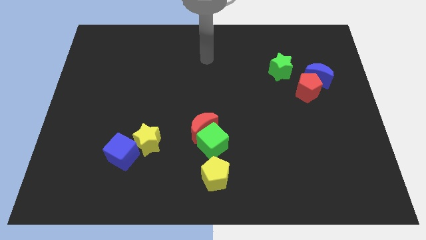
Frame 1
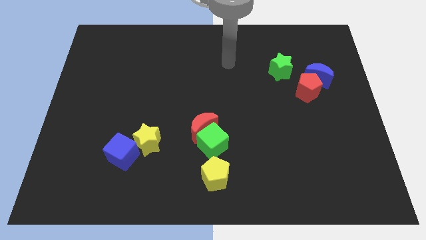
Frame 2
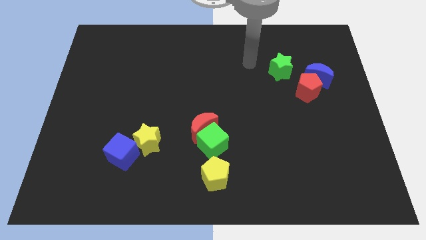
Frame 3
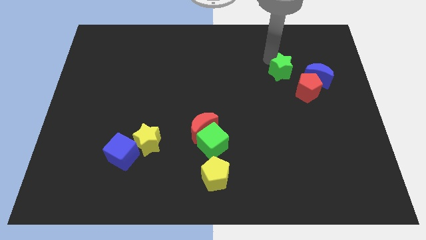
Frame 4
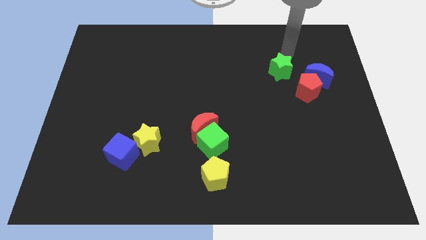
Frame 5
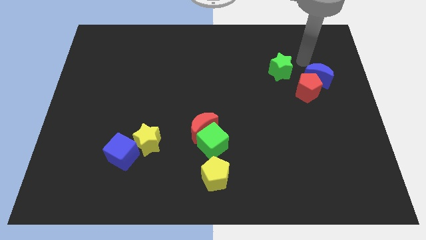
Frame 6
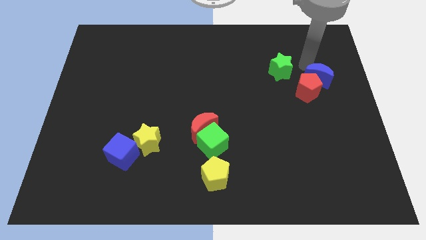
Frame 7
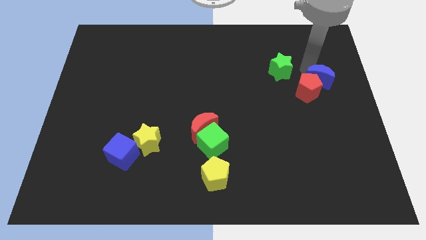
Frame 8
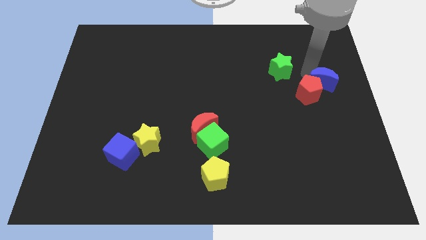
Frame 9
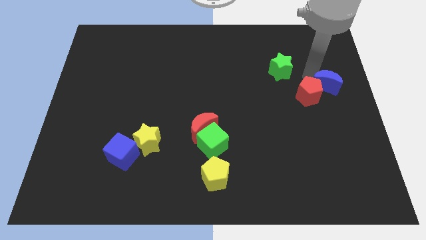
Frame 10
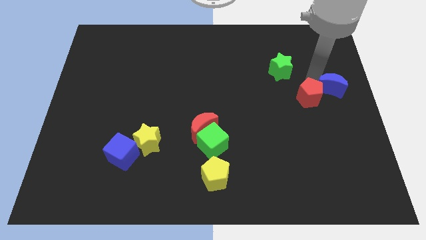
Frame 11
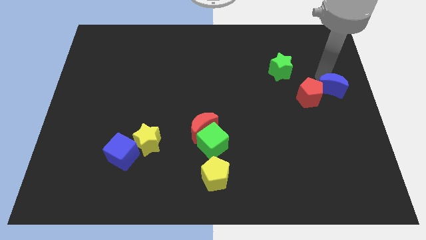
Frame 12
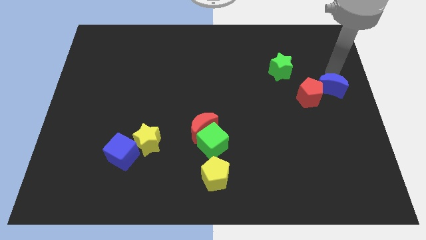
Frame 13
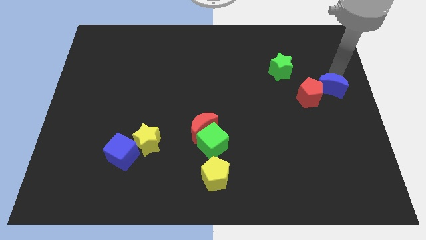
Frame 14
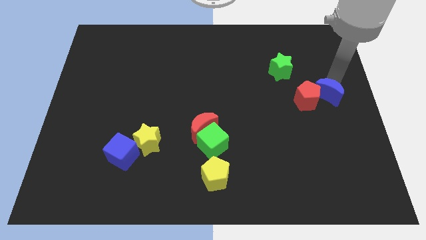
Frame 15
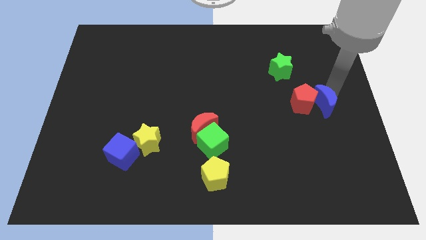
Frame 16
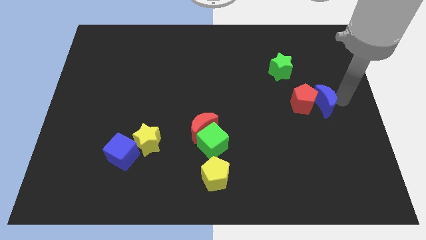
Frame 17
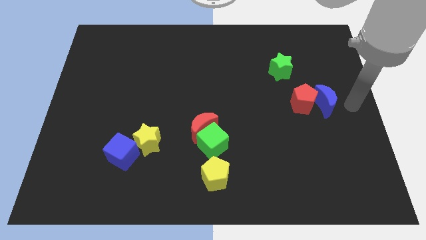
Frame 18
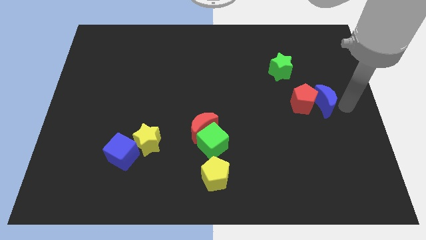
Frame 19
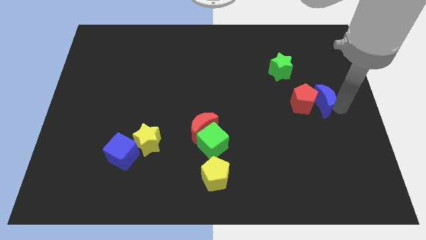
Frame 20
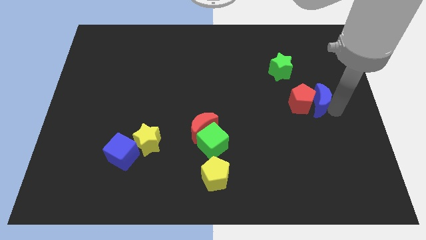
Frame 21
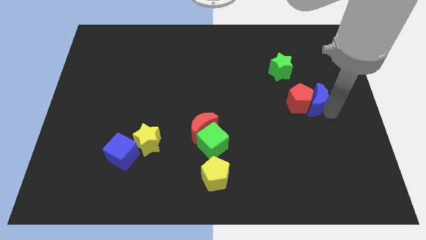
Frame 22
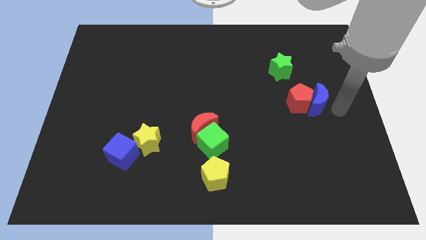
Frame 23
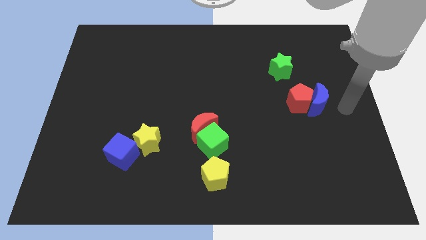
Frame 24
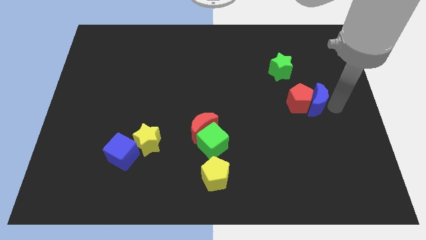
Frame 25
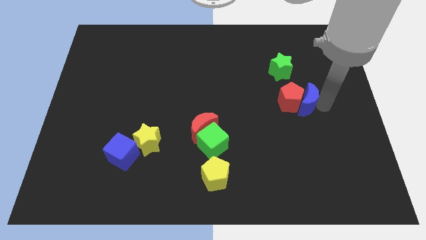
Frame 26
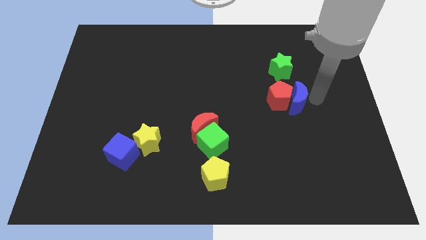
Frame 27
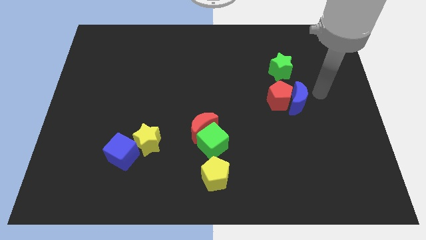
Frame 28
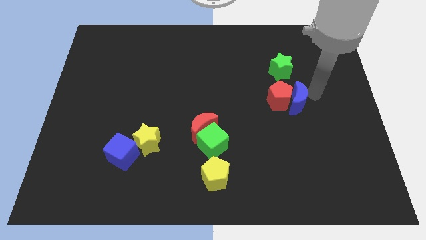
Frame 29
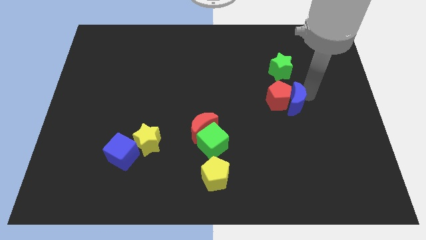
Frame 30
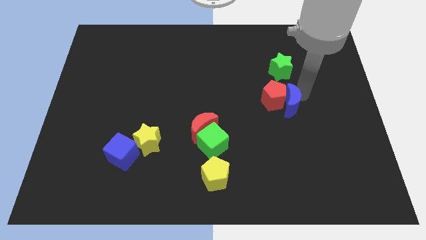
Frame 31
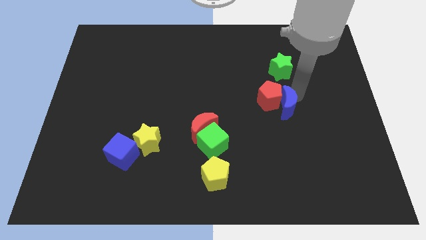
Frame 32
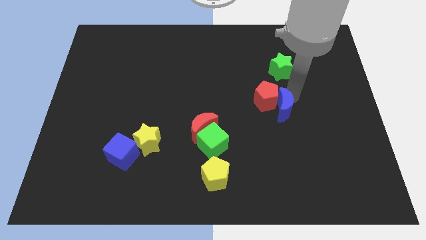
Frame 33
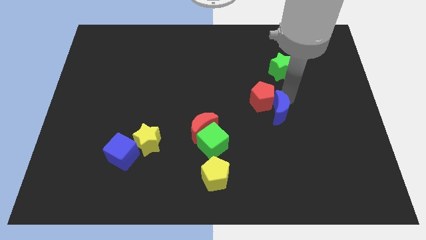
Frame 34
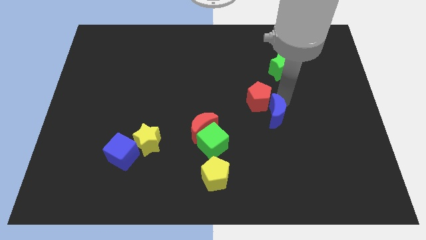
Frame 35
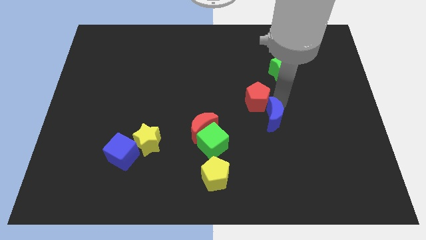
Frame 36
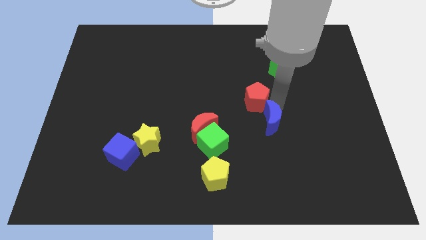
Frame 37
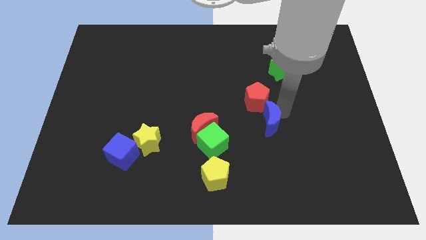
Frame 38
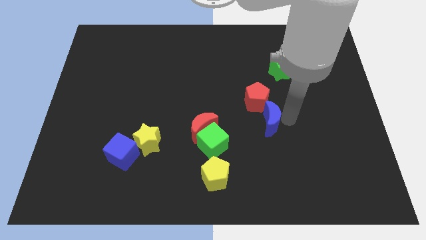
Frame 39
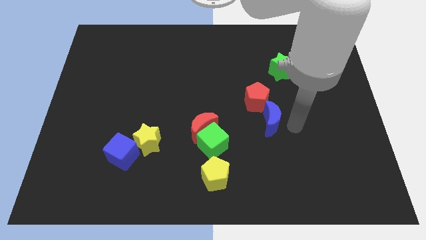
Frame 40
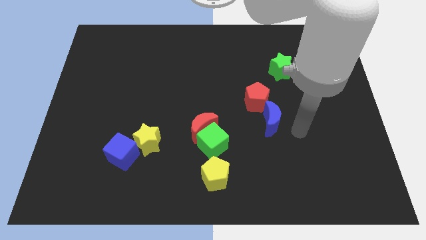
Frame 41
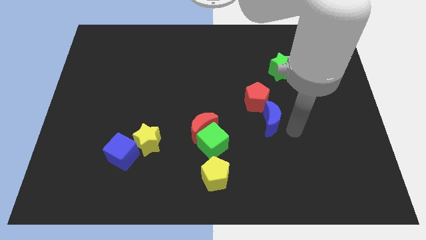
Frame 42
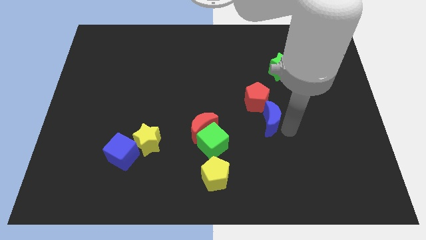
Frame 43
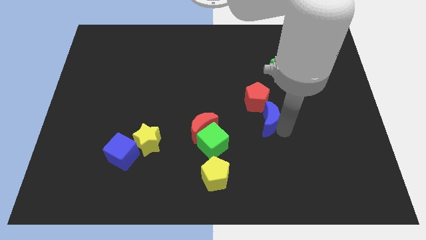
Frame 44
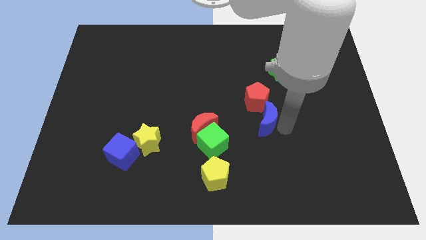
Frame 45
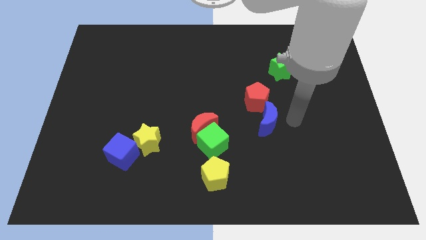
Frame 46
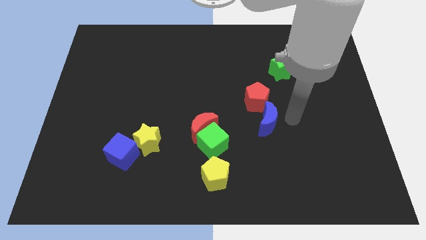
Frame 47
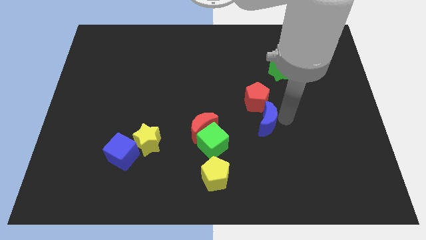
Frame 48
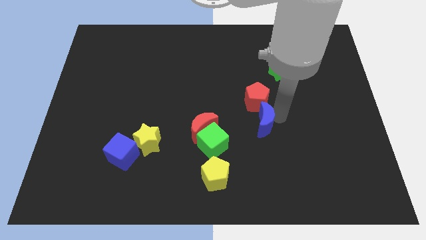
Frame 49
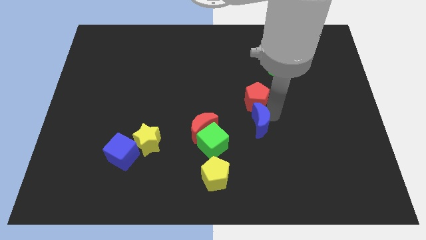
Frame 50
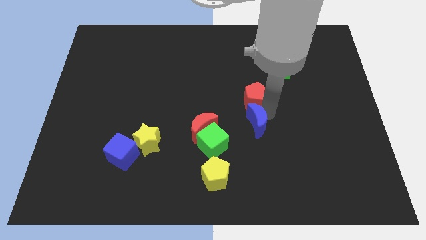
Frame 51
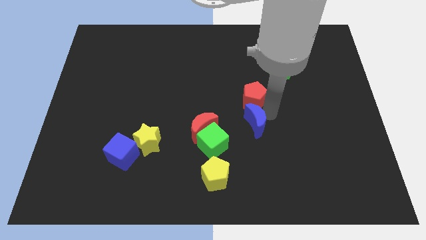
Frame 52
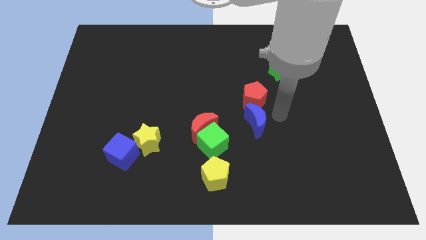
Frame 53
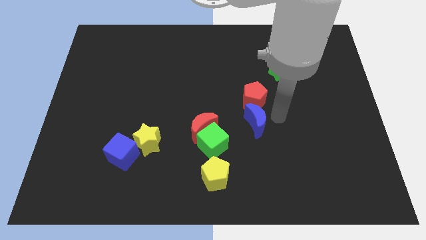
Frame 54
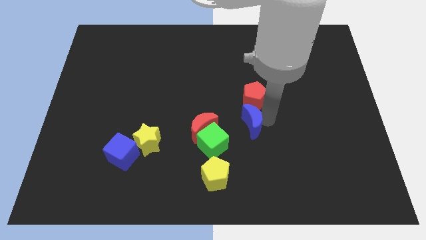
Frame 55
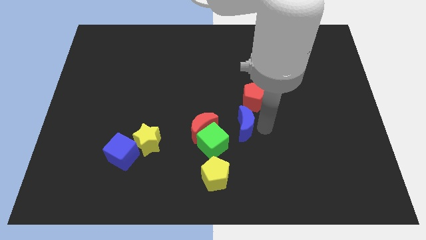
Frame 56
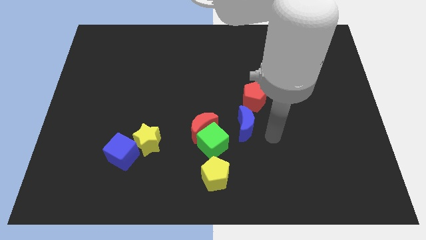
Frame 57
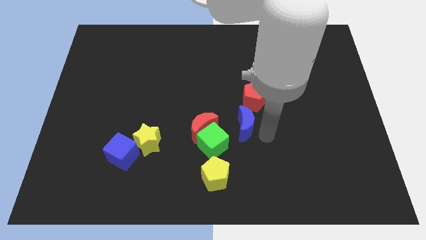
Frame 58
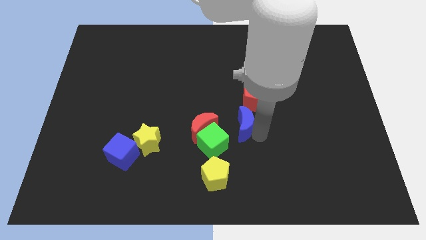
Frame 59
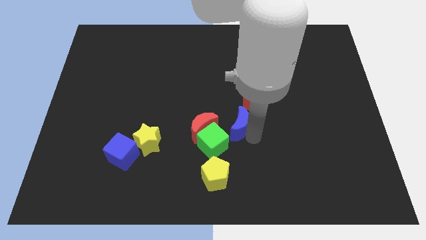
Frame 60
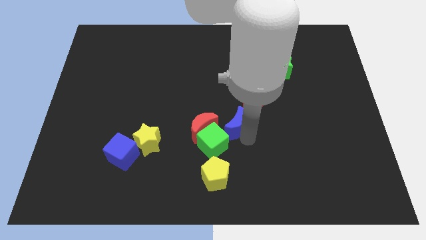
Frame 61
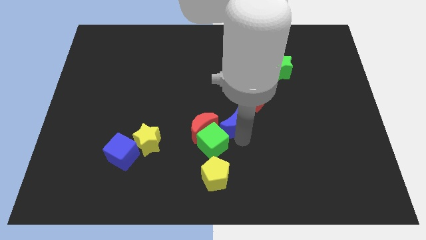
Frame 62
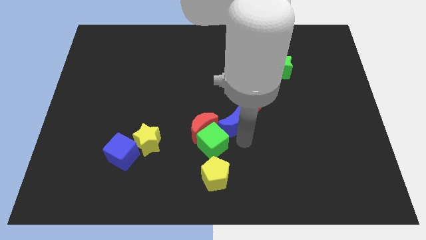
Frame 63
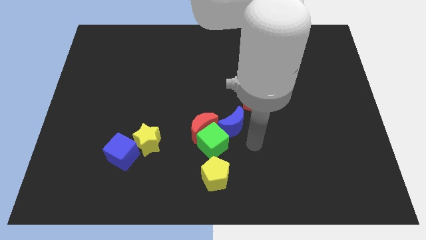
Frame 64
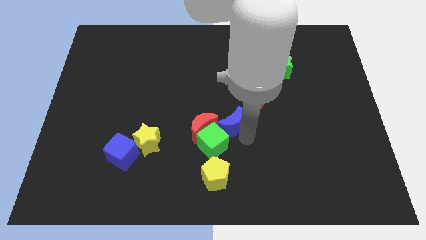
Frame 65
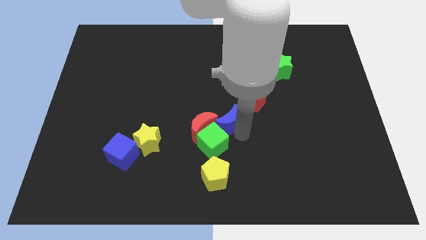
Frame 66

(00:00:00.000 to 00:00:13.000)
move the blue moon towards the red moon
